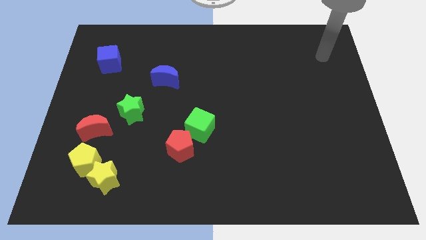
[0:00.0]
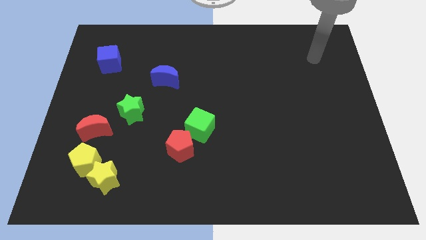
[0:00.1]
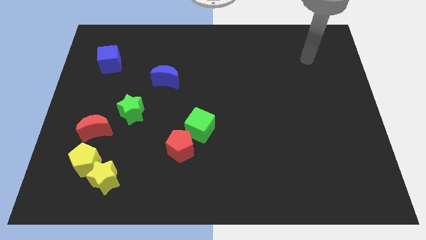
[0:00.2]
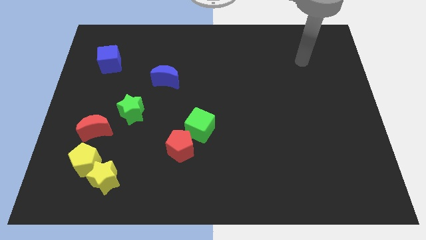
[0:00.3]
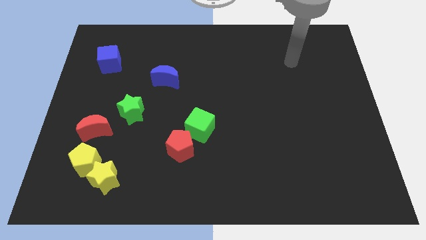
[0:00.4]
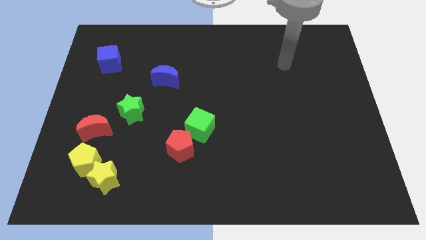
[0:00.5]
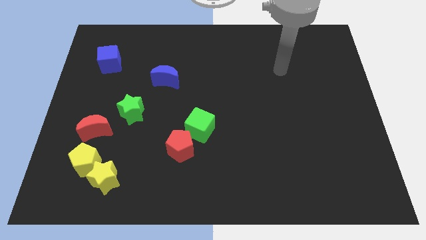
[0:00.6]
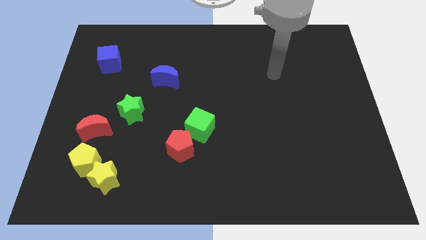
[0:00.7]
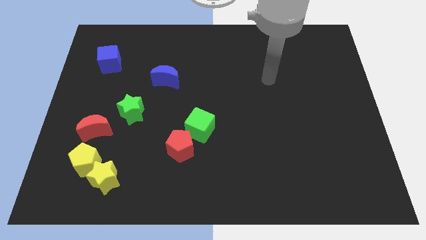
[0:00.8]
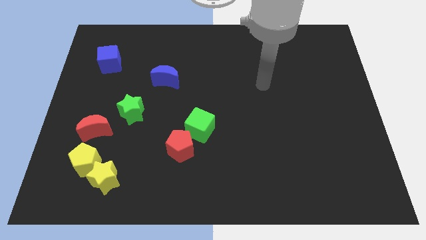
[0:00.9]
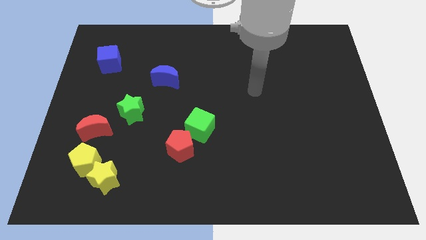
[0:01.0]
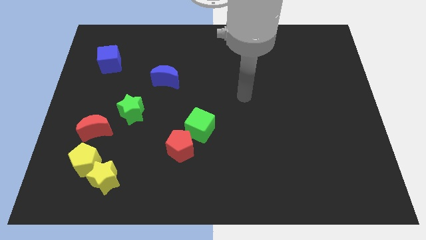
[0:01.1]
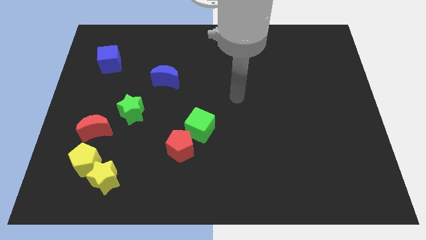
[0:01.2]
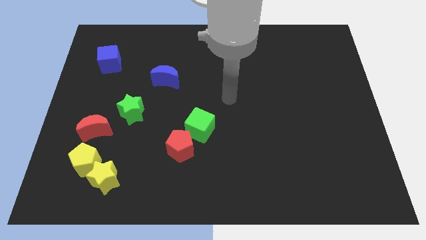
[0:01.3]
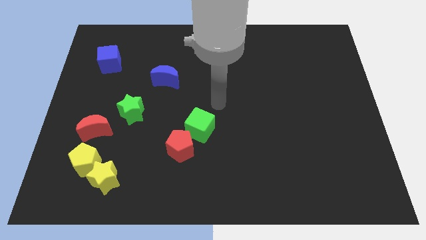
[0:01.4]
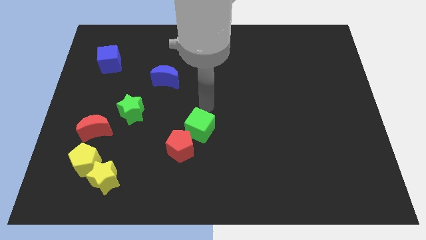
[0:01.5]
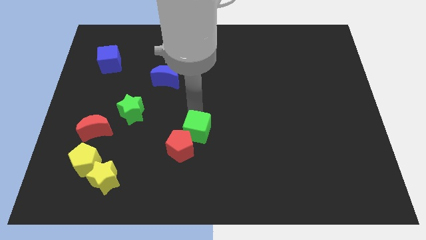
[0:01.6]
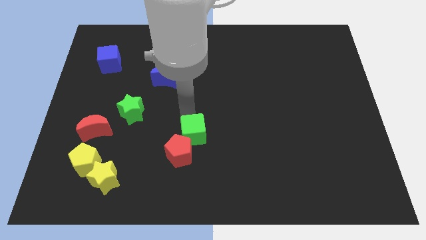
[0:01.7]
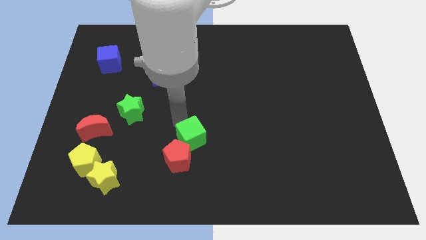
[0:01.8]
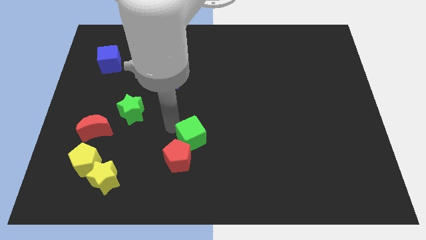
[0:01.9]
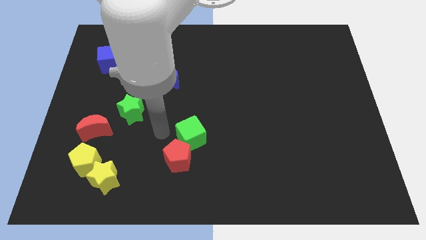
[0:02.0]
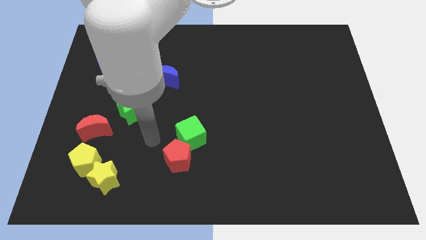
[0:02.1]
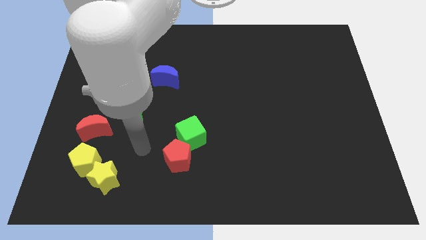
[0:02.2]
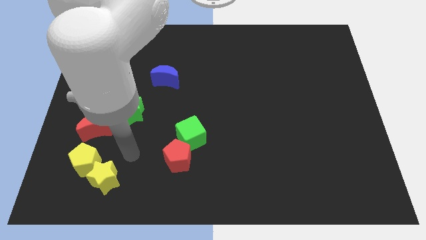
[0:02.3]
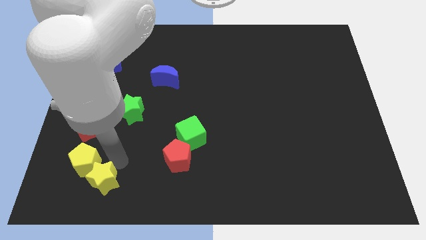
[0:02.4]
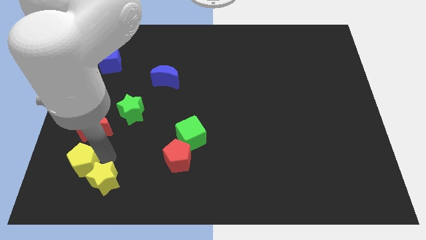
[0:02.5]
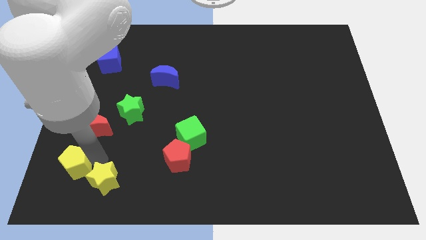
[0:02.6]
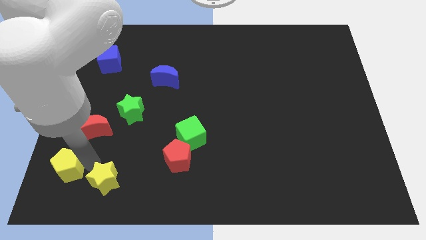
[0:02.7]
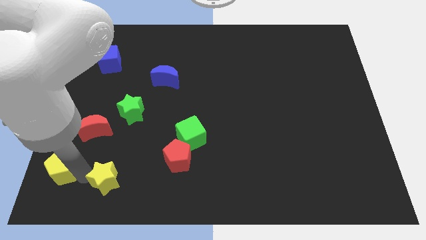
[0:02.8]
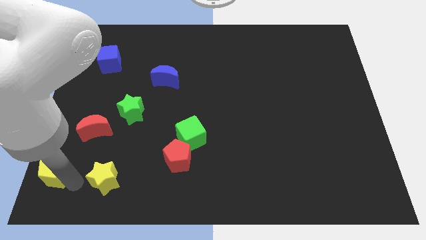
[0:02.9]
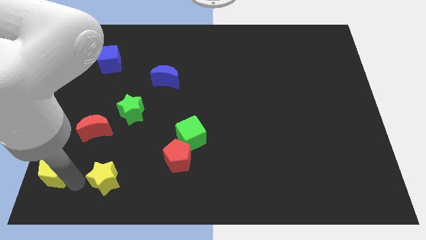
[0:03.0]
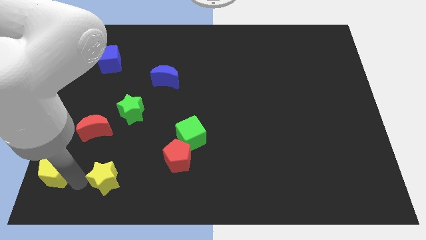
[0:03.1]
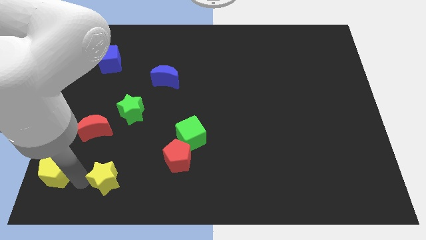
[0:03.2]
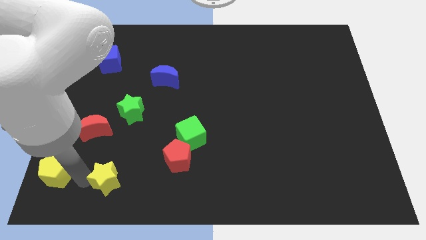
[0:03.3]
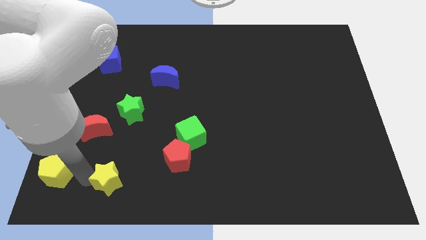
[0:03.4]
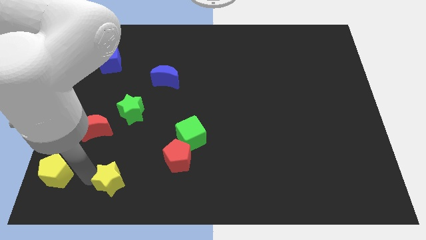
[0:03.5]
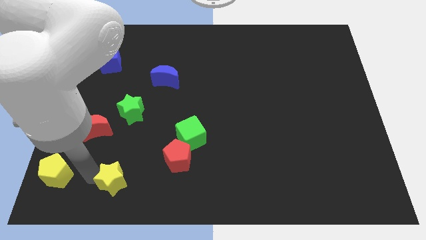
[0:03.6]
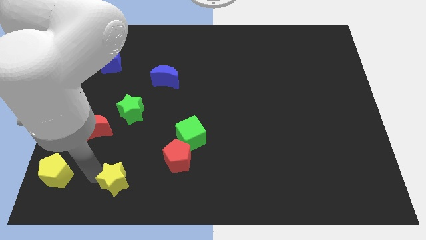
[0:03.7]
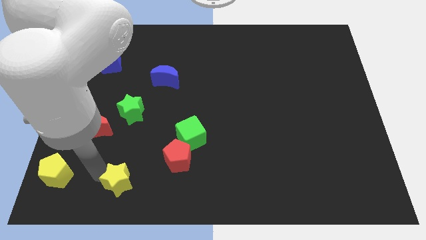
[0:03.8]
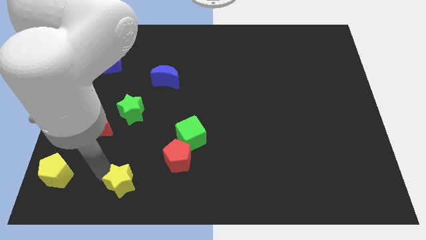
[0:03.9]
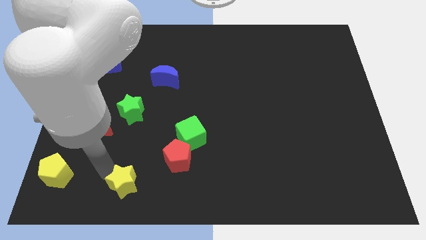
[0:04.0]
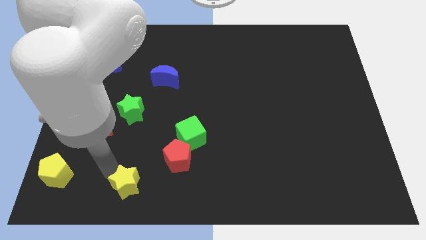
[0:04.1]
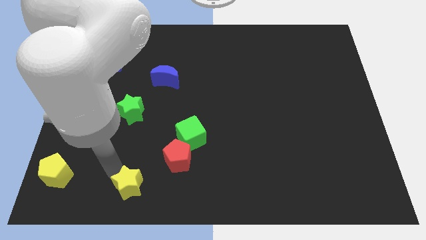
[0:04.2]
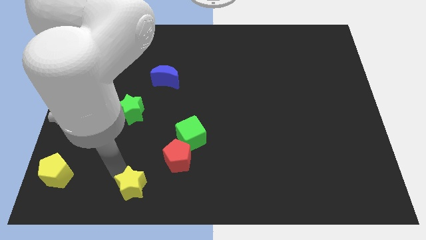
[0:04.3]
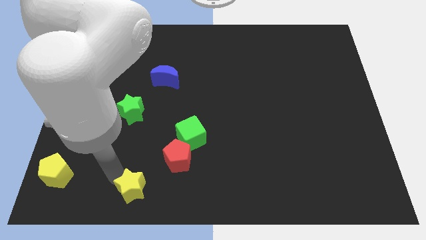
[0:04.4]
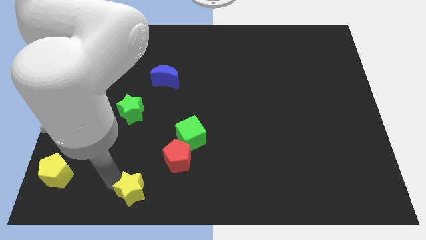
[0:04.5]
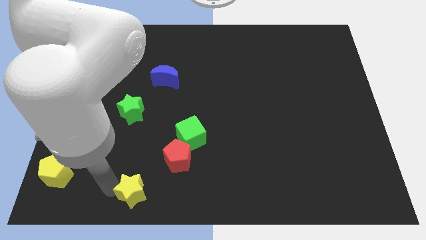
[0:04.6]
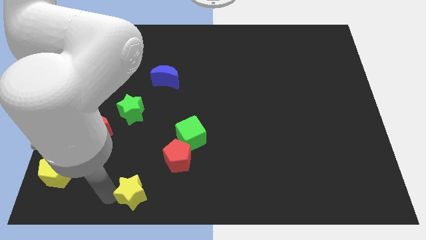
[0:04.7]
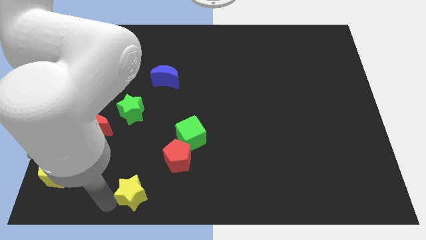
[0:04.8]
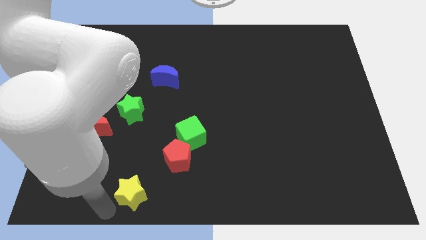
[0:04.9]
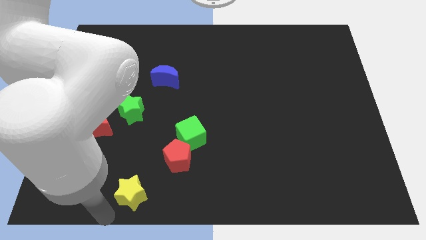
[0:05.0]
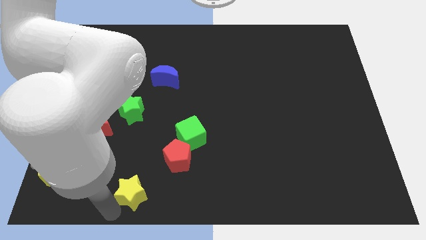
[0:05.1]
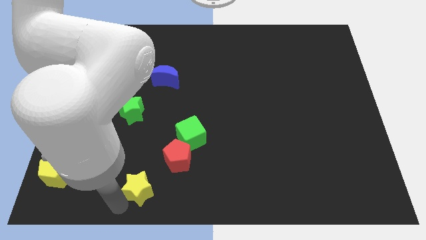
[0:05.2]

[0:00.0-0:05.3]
slightly move the yellow star right

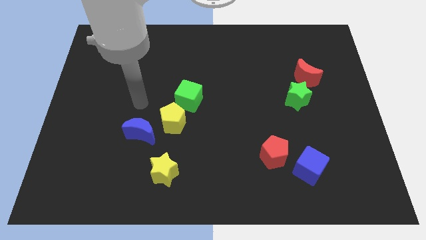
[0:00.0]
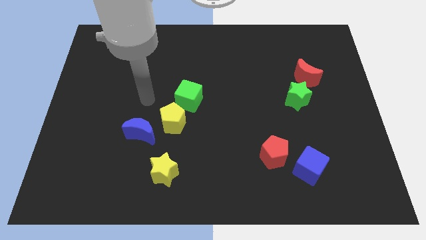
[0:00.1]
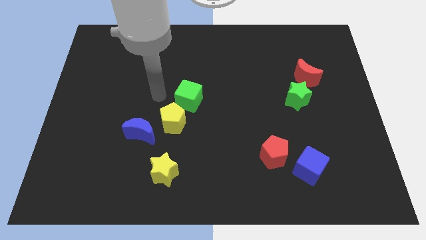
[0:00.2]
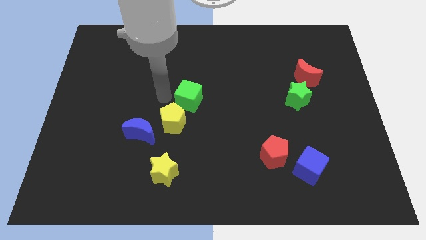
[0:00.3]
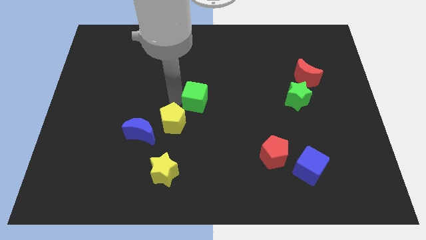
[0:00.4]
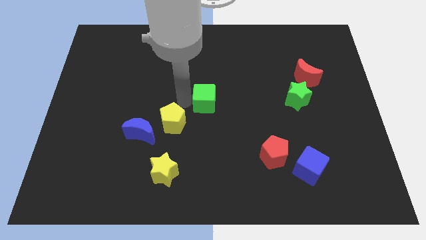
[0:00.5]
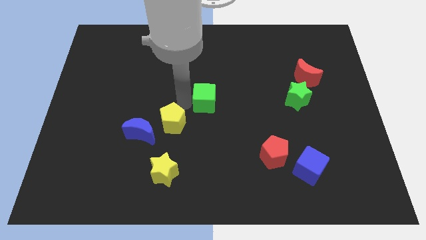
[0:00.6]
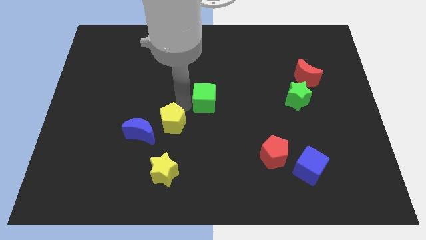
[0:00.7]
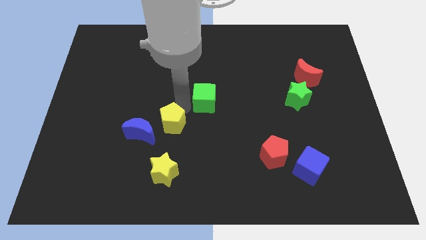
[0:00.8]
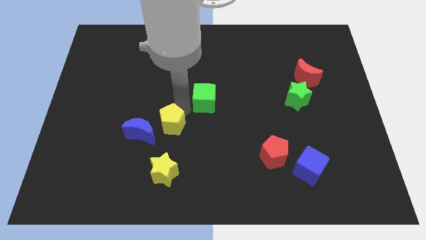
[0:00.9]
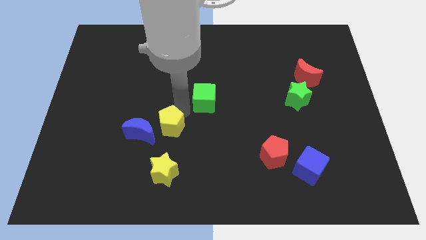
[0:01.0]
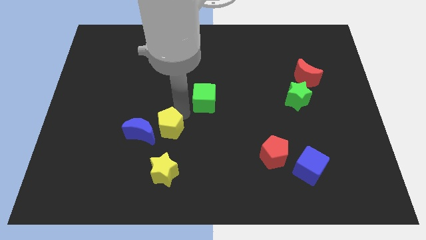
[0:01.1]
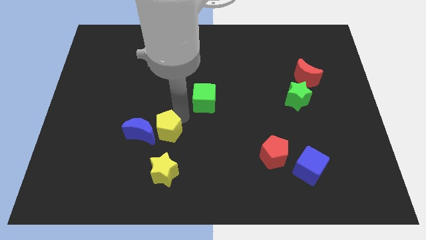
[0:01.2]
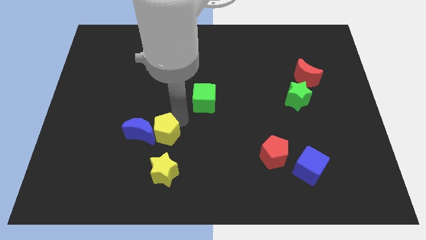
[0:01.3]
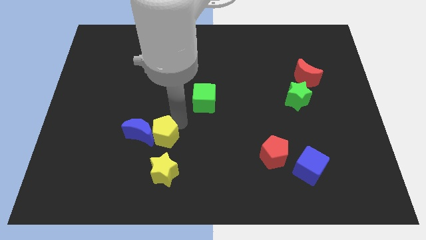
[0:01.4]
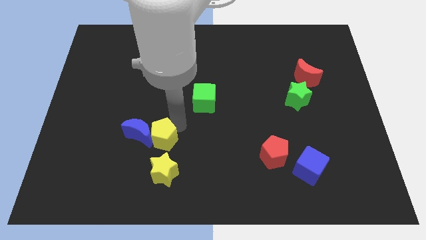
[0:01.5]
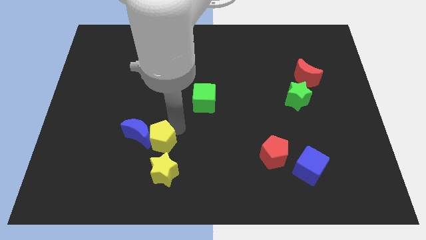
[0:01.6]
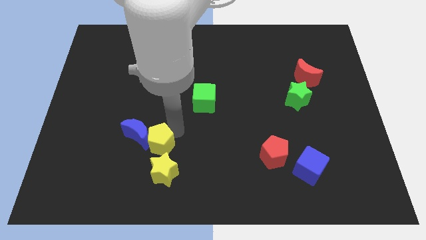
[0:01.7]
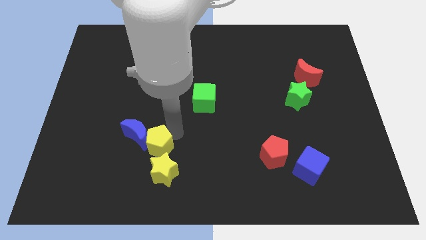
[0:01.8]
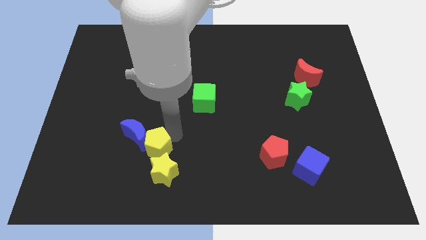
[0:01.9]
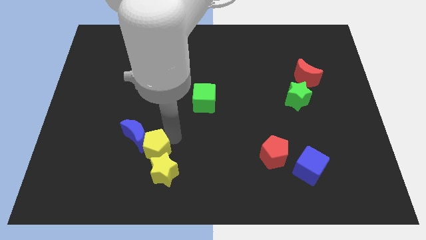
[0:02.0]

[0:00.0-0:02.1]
push the yellow pentagon a bit diagonally down and left

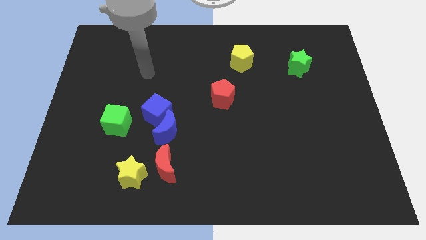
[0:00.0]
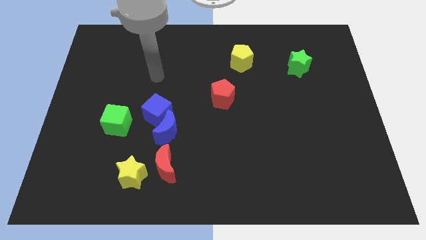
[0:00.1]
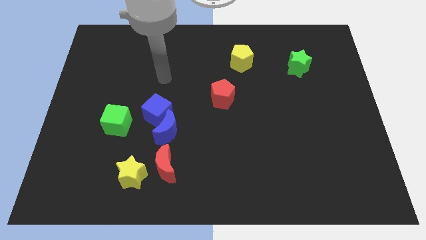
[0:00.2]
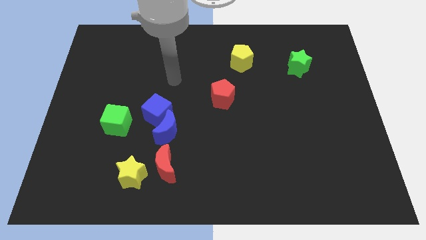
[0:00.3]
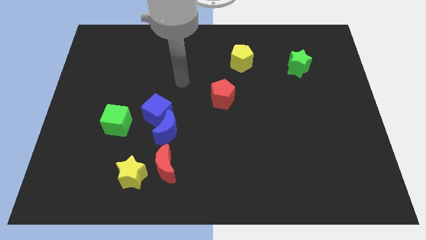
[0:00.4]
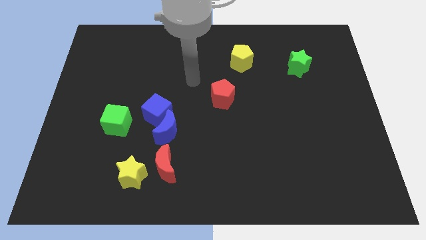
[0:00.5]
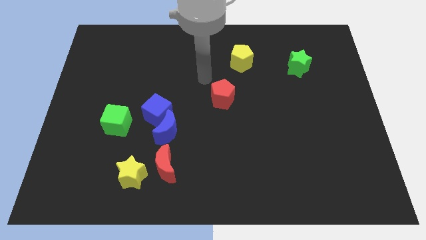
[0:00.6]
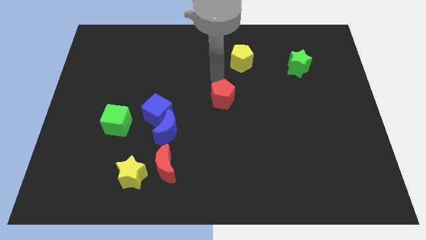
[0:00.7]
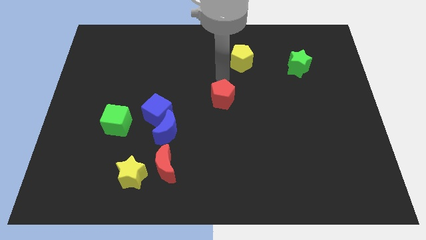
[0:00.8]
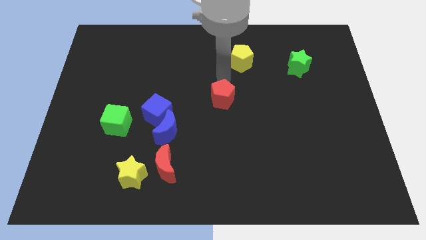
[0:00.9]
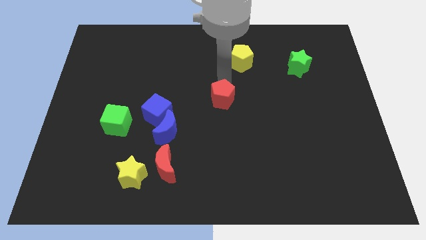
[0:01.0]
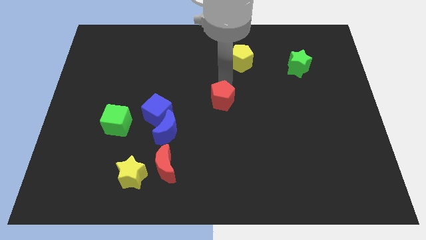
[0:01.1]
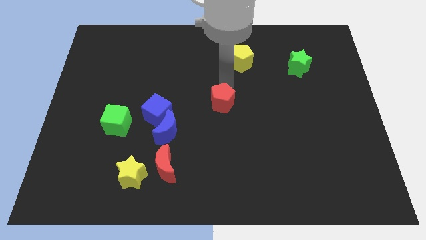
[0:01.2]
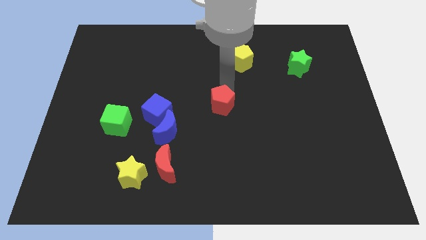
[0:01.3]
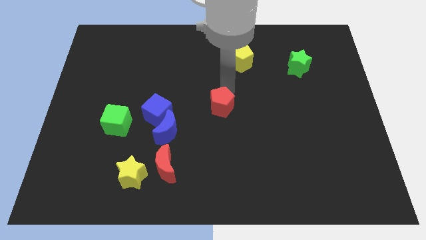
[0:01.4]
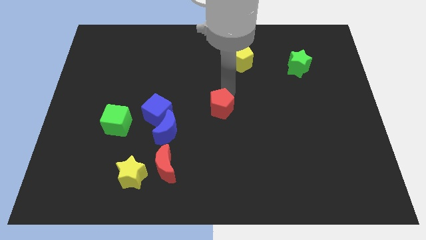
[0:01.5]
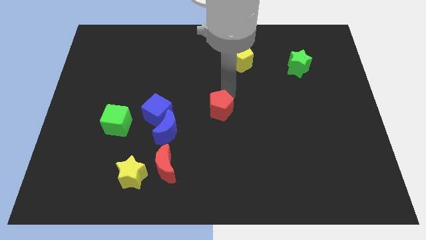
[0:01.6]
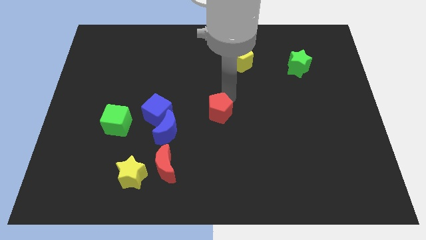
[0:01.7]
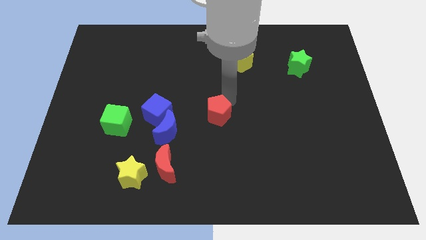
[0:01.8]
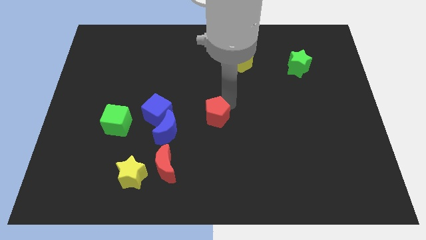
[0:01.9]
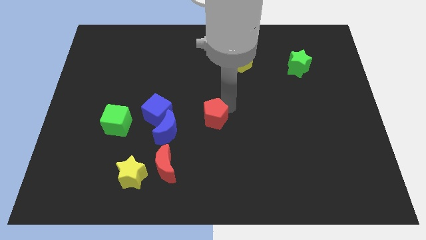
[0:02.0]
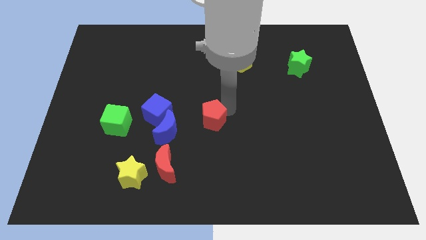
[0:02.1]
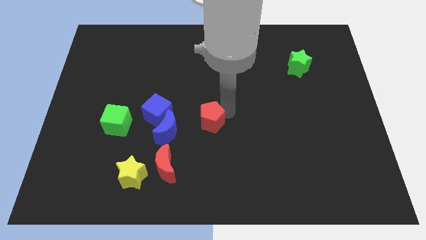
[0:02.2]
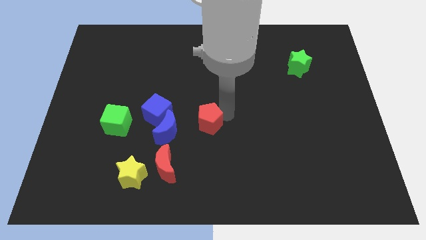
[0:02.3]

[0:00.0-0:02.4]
slide the red pentagon down a little bit
